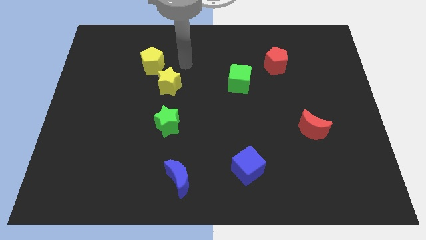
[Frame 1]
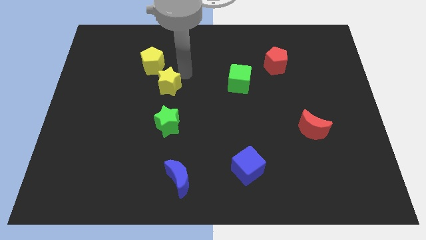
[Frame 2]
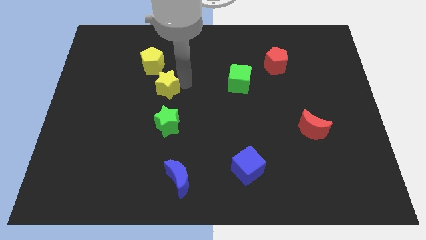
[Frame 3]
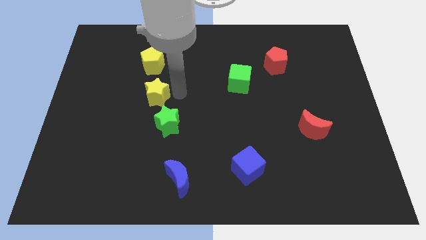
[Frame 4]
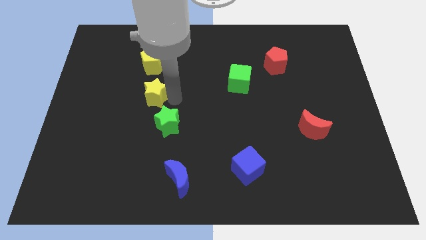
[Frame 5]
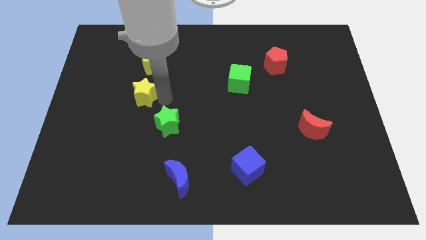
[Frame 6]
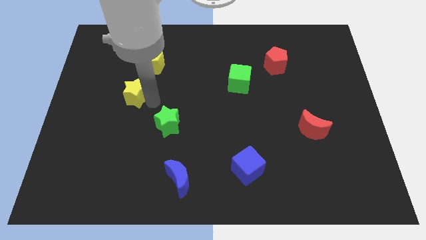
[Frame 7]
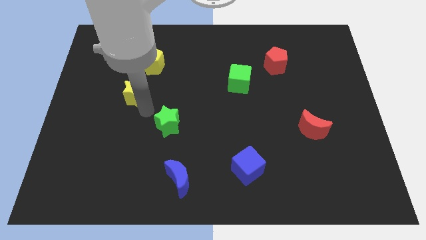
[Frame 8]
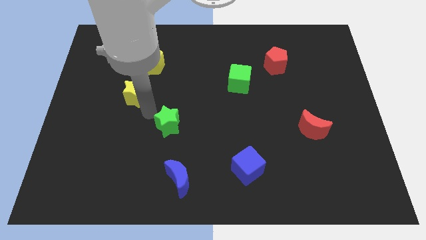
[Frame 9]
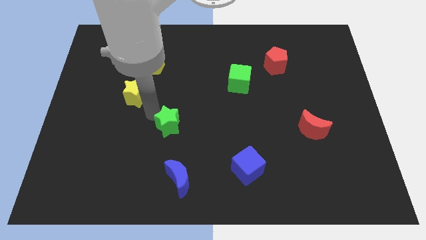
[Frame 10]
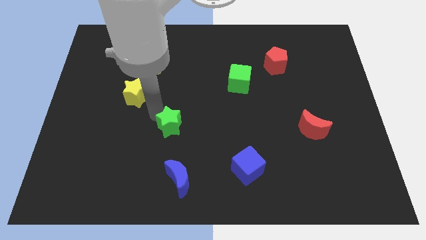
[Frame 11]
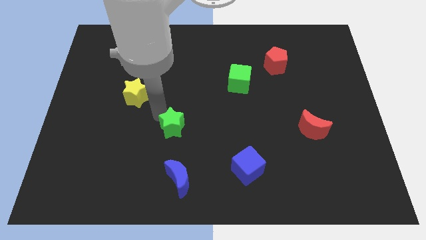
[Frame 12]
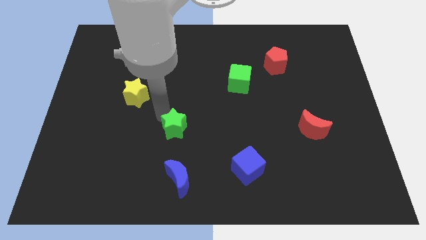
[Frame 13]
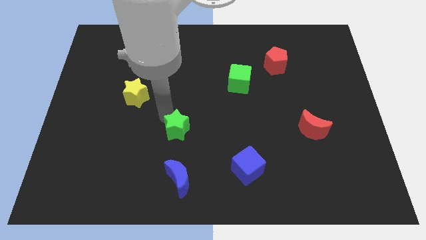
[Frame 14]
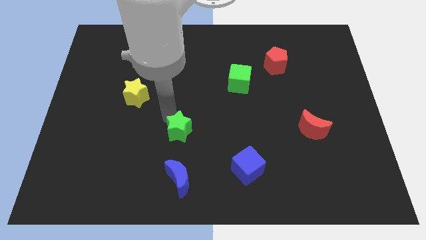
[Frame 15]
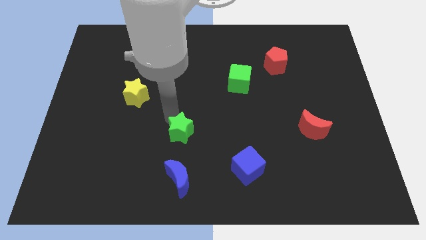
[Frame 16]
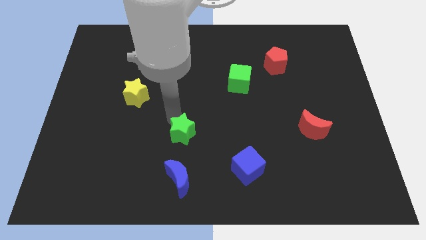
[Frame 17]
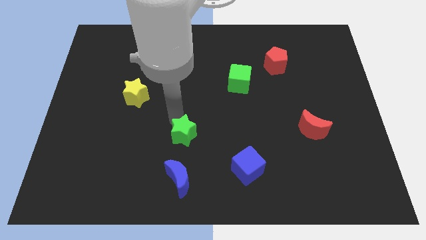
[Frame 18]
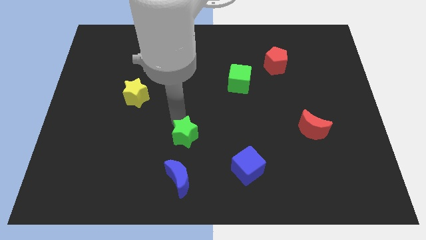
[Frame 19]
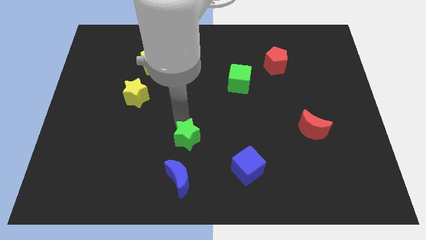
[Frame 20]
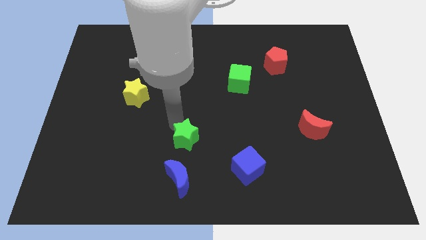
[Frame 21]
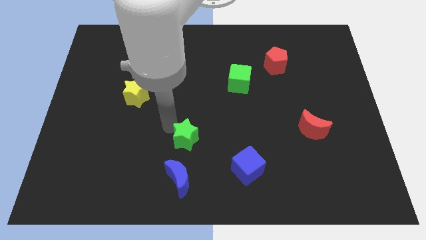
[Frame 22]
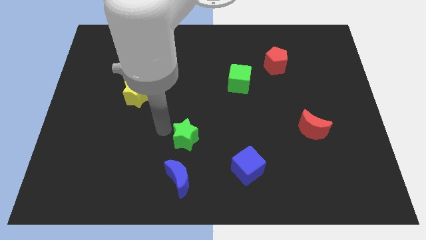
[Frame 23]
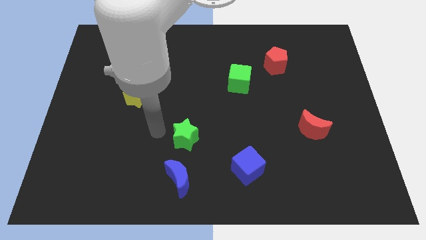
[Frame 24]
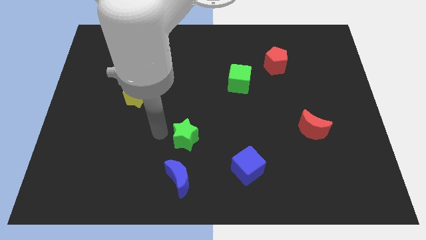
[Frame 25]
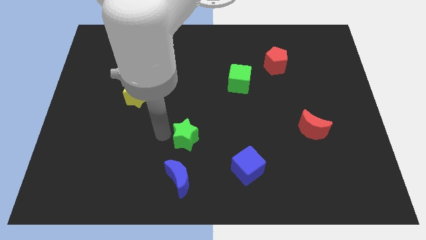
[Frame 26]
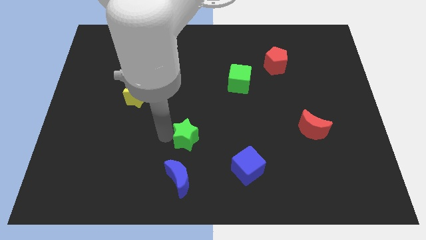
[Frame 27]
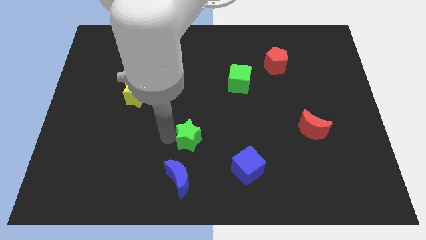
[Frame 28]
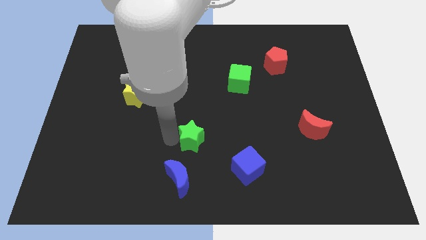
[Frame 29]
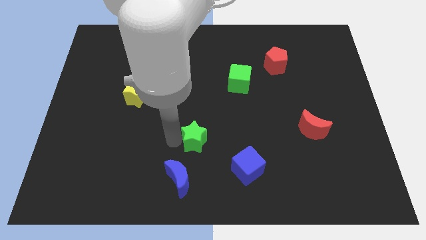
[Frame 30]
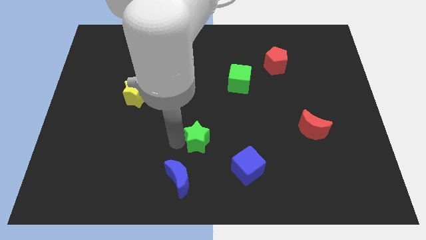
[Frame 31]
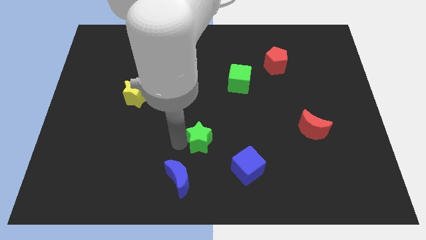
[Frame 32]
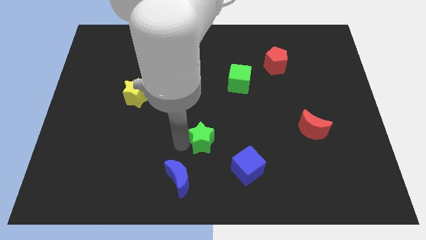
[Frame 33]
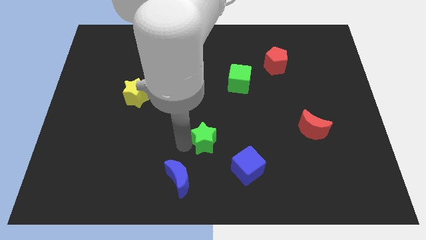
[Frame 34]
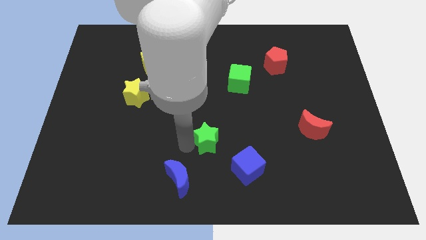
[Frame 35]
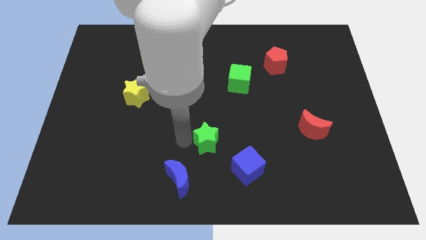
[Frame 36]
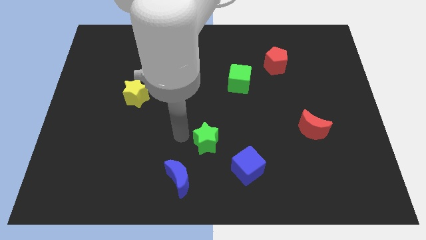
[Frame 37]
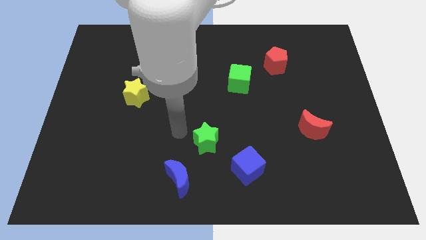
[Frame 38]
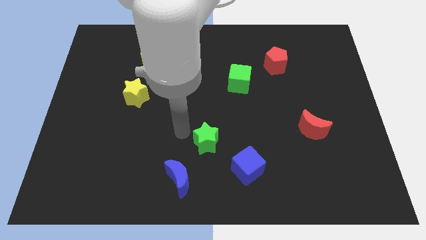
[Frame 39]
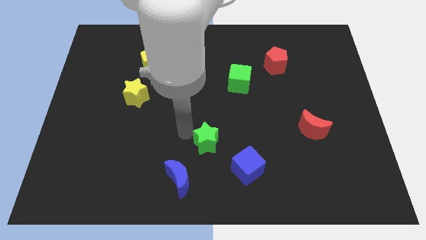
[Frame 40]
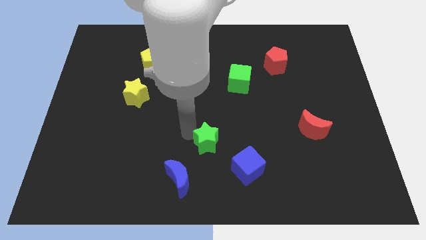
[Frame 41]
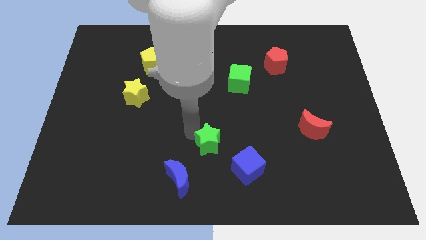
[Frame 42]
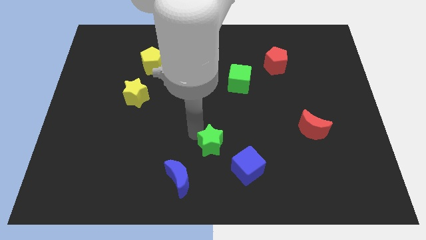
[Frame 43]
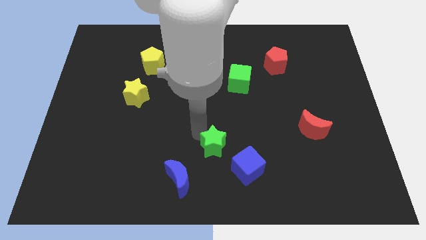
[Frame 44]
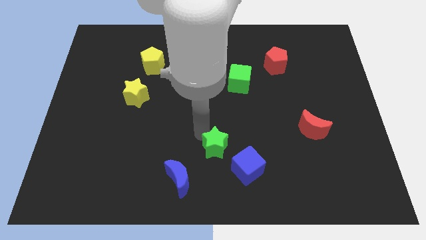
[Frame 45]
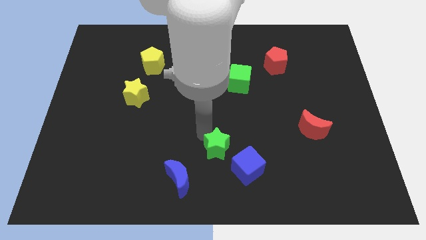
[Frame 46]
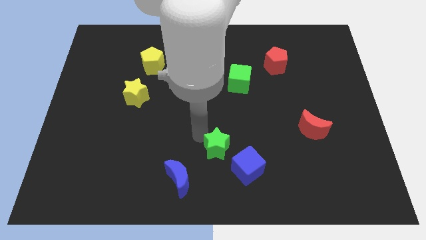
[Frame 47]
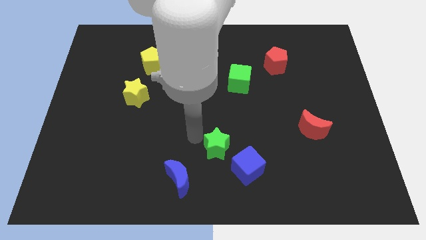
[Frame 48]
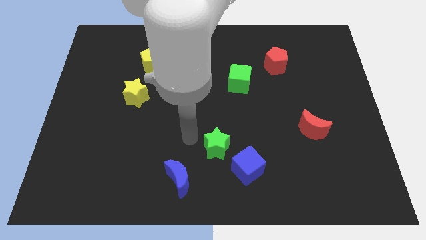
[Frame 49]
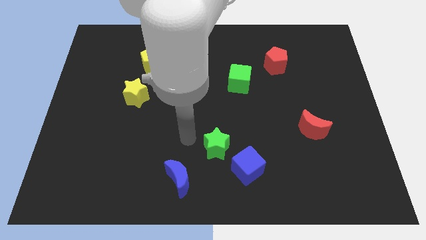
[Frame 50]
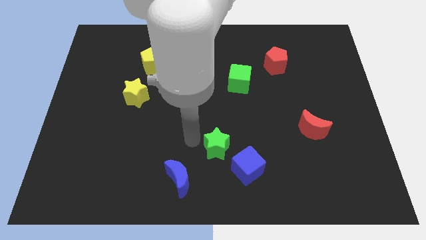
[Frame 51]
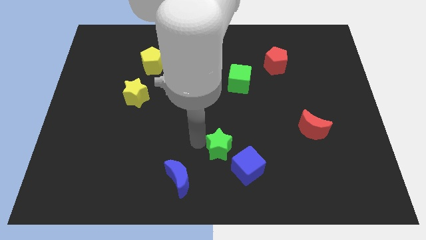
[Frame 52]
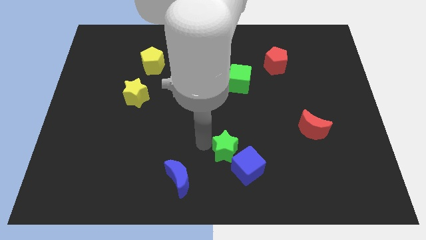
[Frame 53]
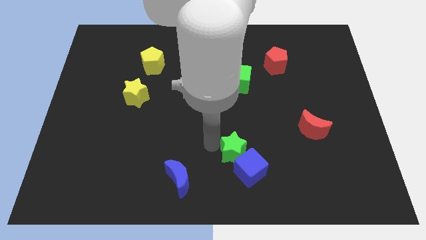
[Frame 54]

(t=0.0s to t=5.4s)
slide the green star close to the blue cube

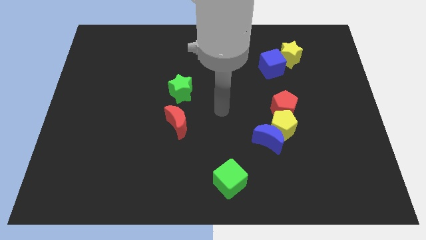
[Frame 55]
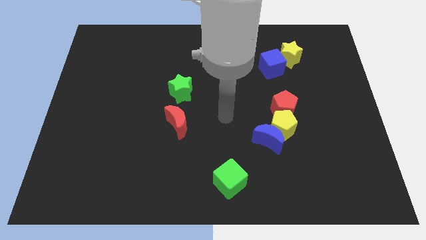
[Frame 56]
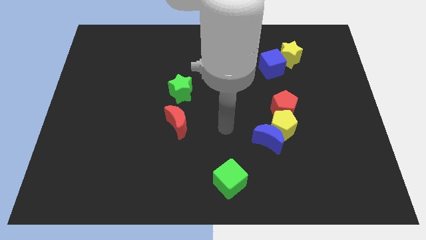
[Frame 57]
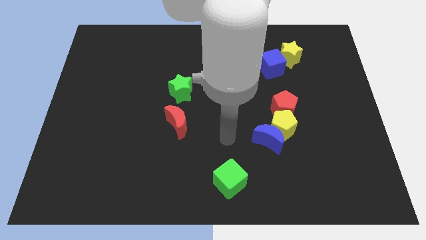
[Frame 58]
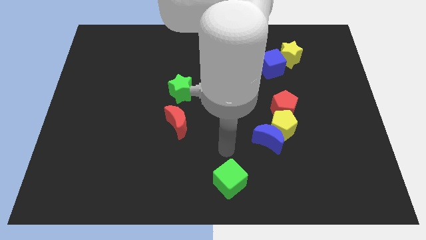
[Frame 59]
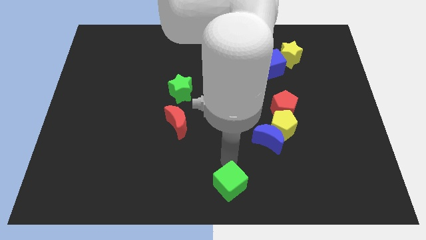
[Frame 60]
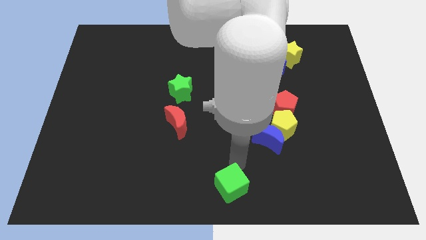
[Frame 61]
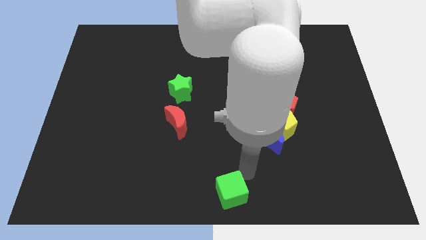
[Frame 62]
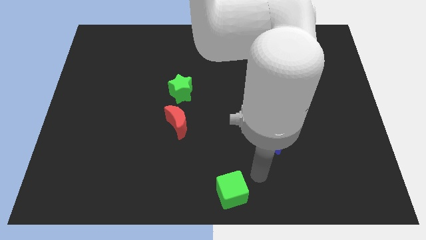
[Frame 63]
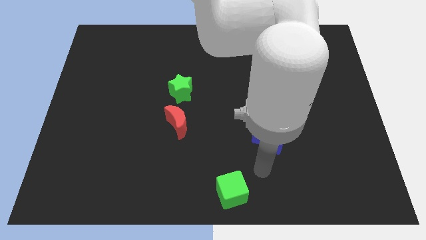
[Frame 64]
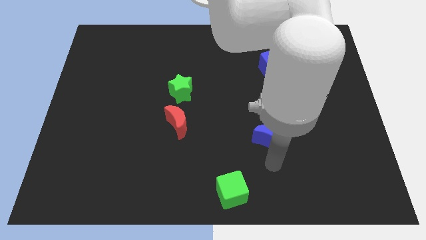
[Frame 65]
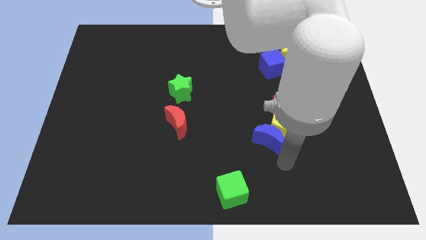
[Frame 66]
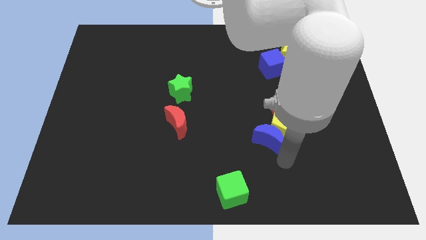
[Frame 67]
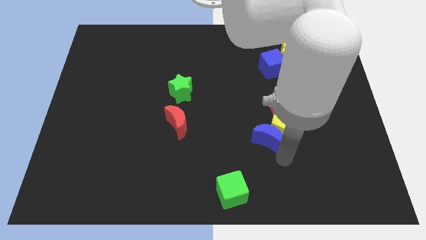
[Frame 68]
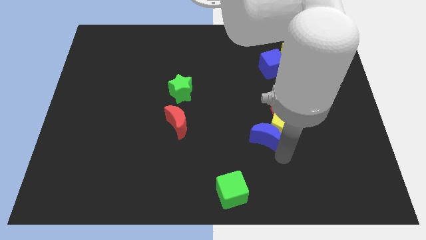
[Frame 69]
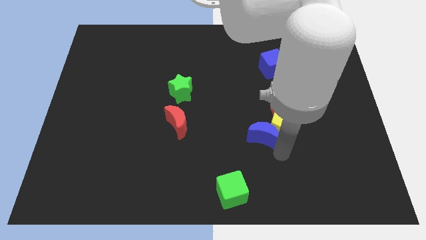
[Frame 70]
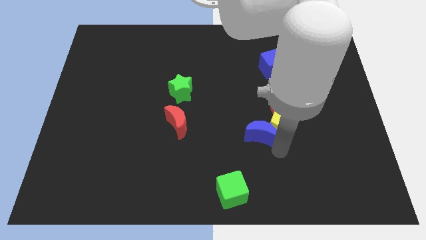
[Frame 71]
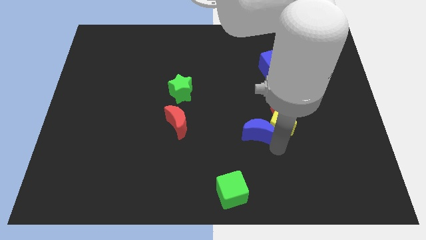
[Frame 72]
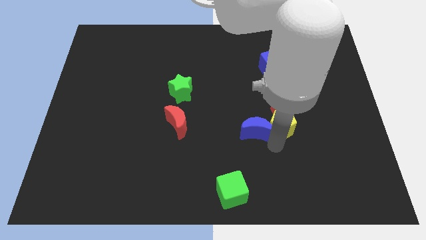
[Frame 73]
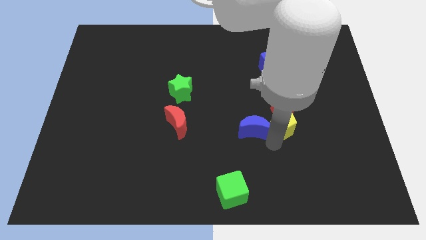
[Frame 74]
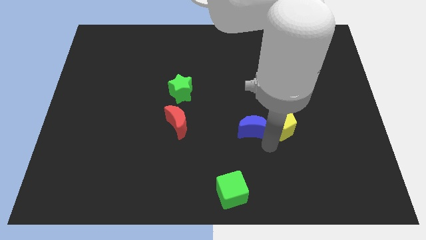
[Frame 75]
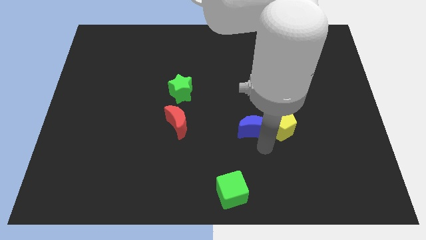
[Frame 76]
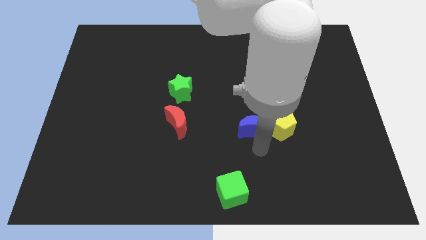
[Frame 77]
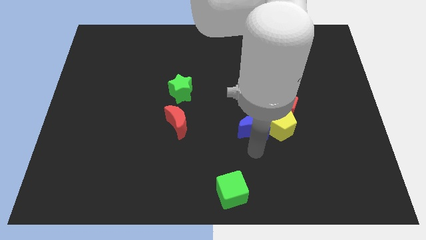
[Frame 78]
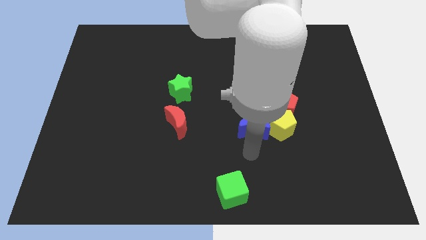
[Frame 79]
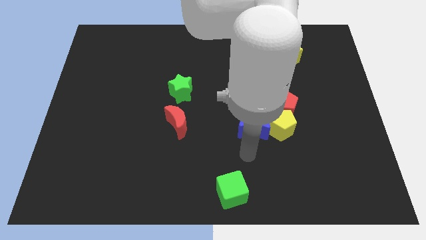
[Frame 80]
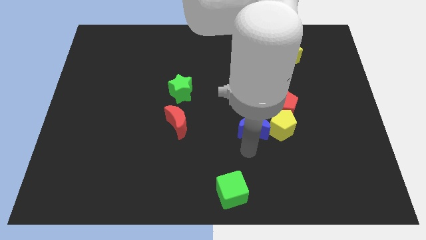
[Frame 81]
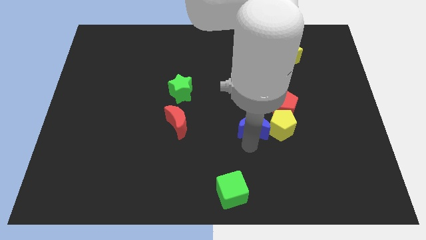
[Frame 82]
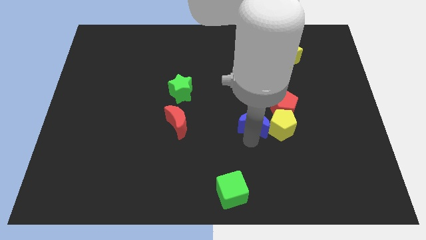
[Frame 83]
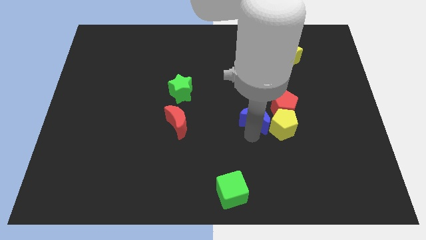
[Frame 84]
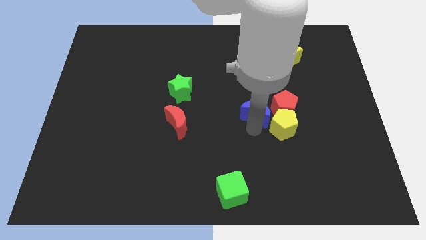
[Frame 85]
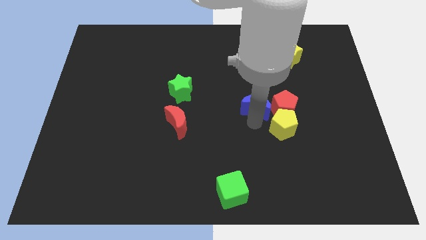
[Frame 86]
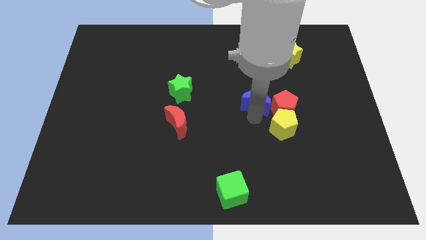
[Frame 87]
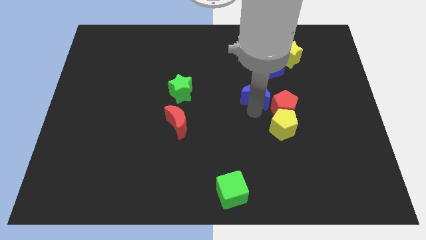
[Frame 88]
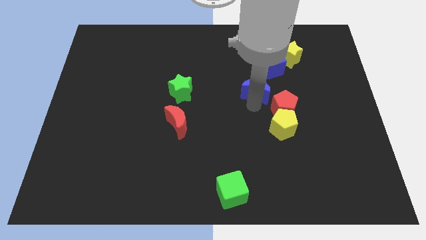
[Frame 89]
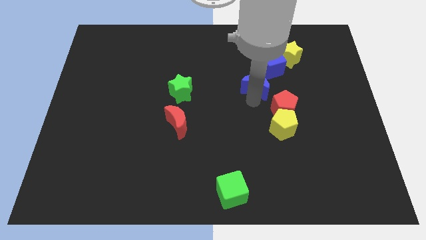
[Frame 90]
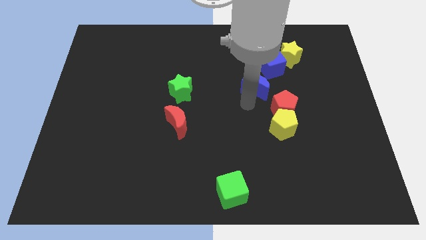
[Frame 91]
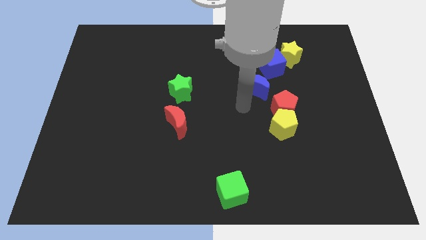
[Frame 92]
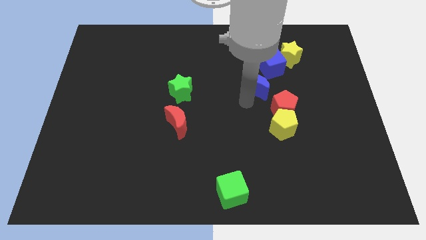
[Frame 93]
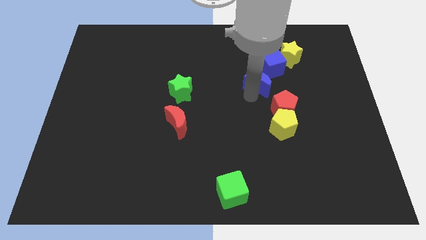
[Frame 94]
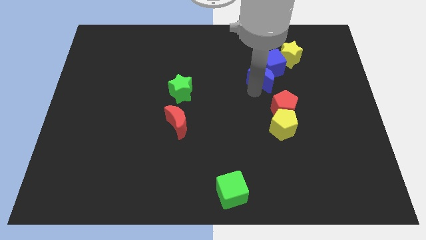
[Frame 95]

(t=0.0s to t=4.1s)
slide the blue moon to the blue cube
